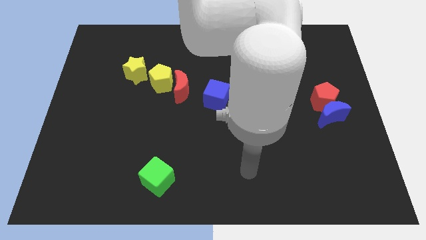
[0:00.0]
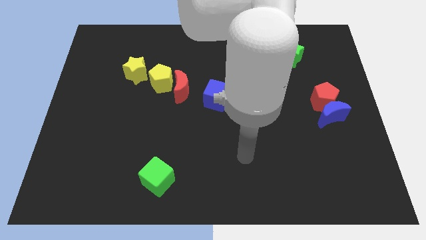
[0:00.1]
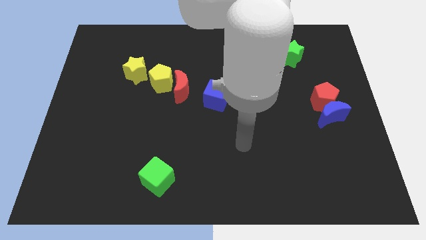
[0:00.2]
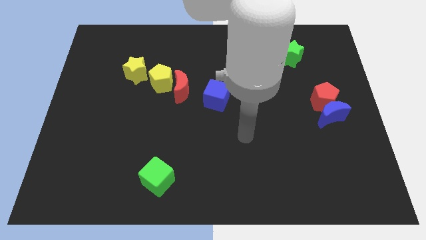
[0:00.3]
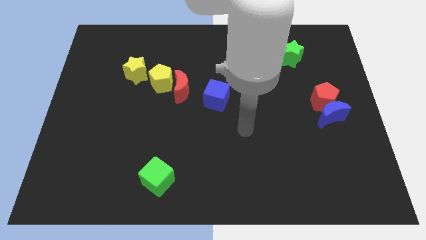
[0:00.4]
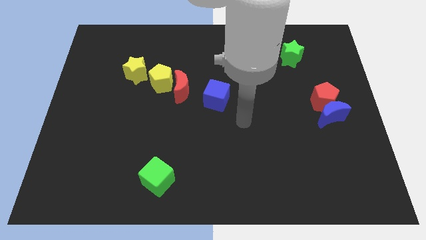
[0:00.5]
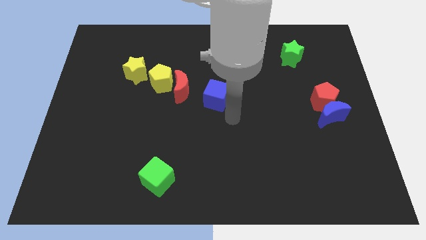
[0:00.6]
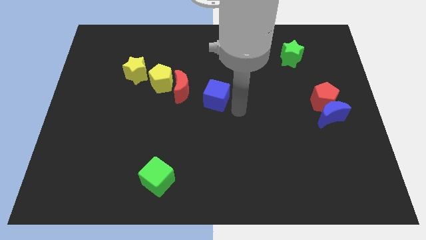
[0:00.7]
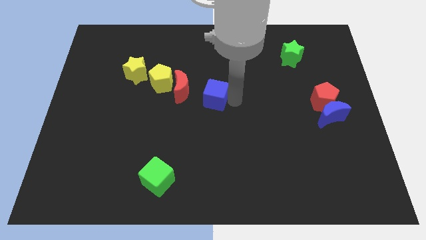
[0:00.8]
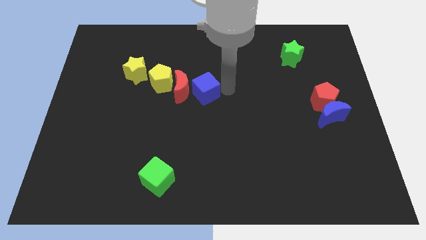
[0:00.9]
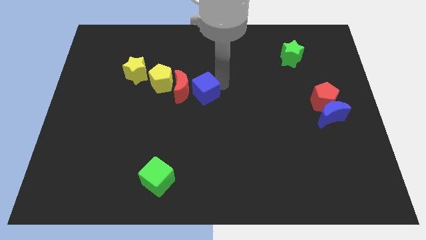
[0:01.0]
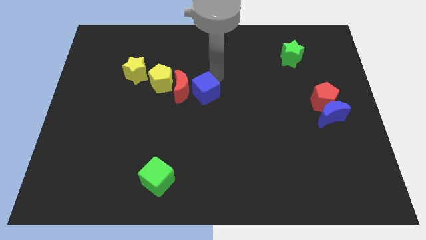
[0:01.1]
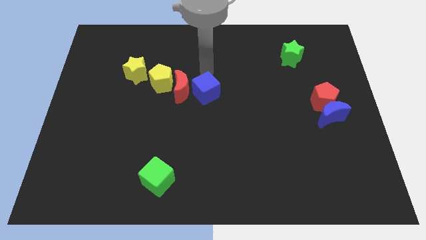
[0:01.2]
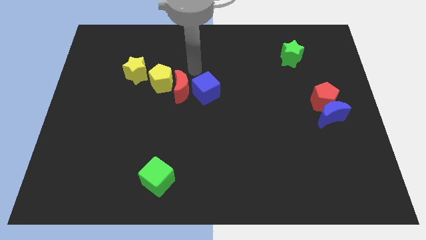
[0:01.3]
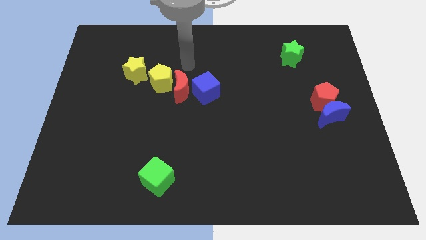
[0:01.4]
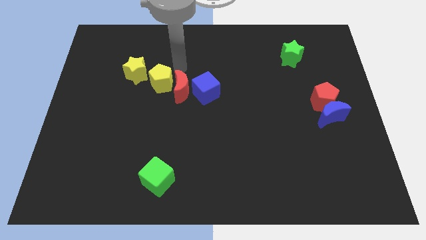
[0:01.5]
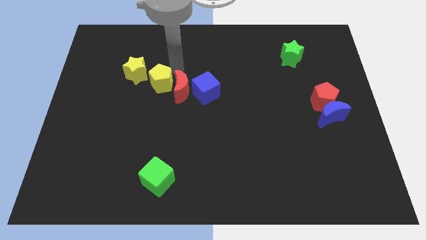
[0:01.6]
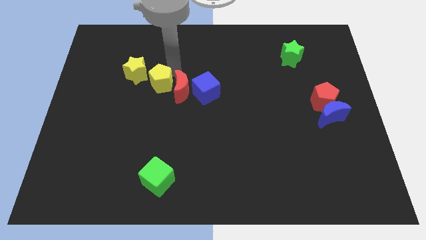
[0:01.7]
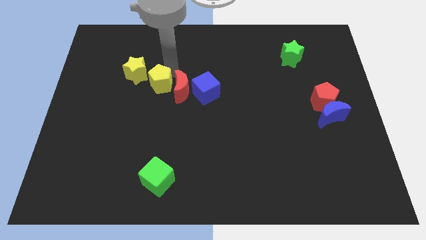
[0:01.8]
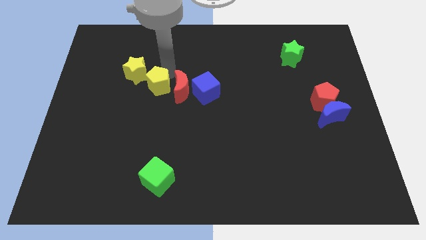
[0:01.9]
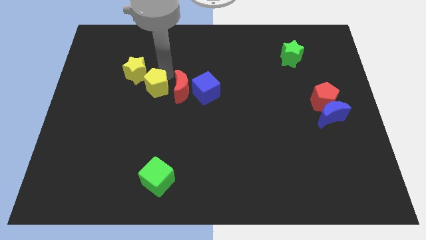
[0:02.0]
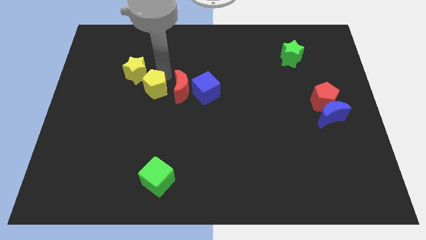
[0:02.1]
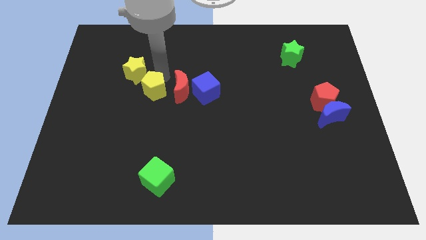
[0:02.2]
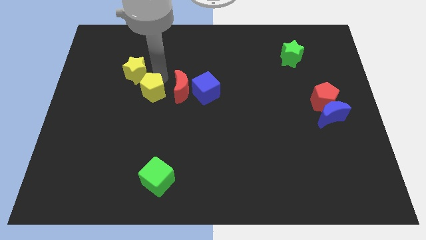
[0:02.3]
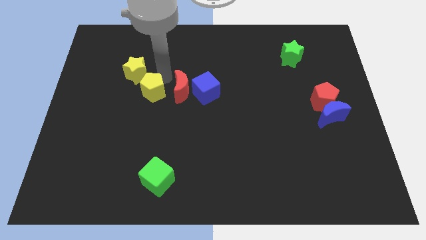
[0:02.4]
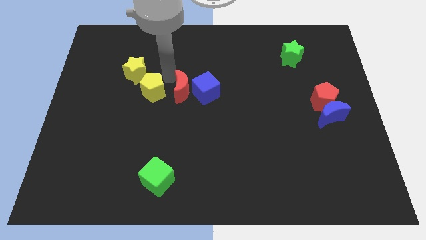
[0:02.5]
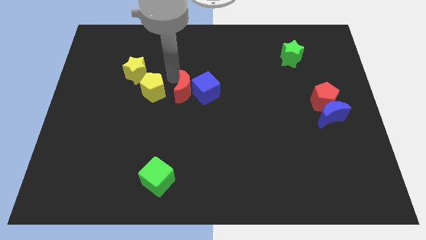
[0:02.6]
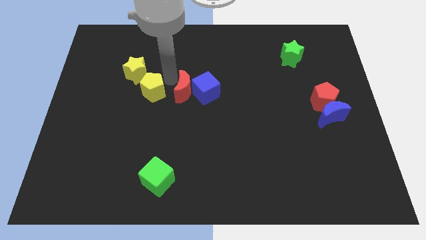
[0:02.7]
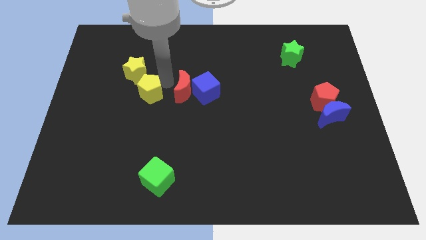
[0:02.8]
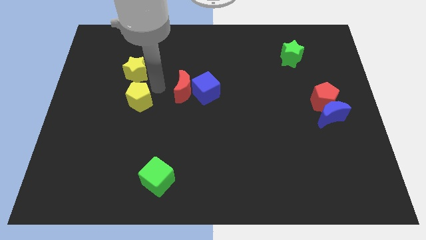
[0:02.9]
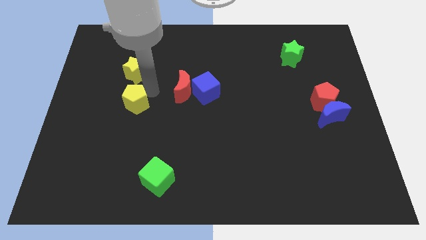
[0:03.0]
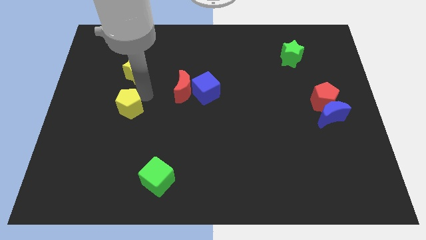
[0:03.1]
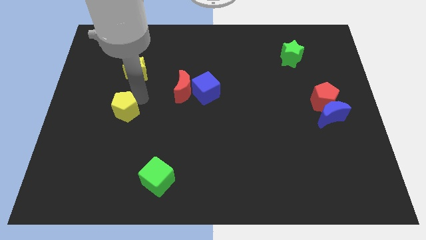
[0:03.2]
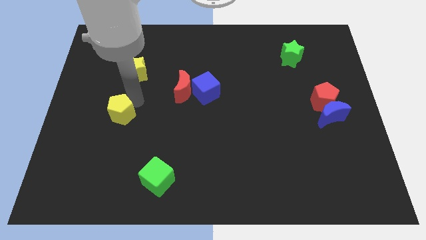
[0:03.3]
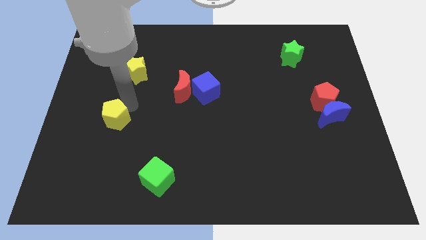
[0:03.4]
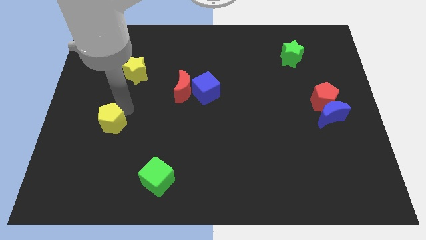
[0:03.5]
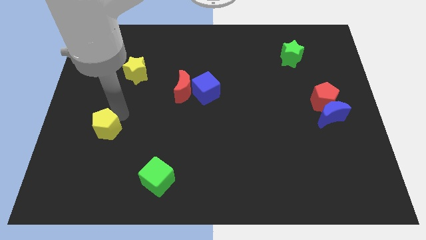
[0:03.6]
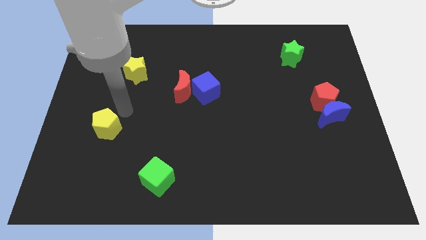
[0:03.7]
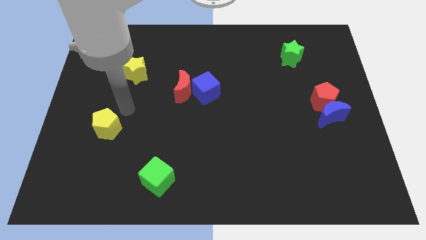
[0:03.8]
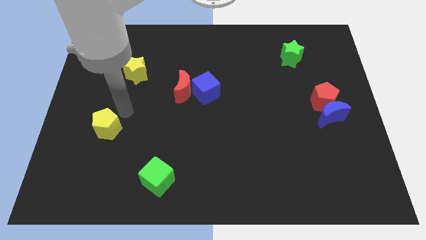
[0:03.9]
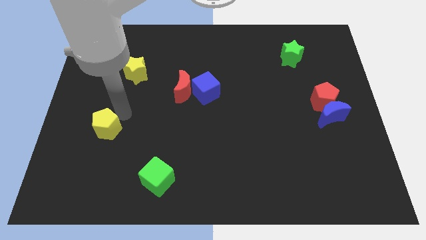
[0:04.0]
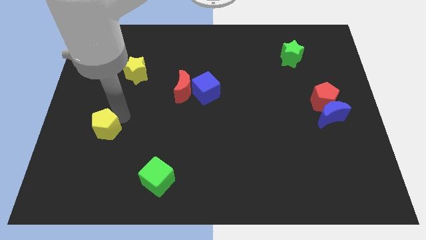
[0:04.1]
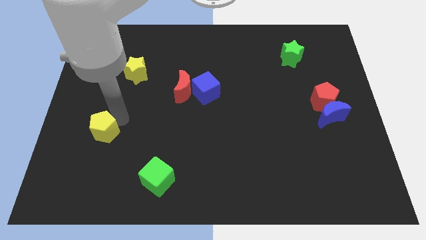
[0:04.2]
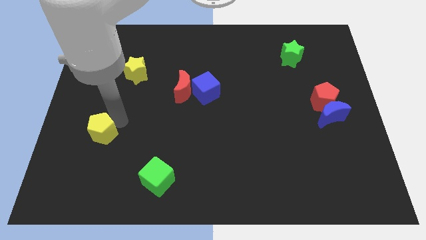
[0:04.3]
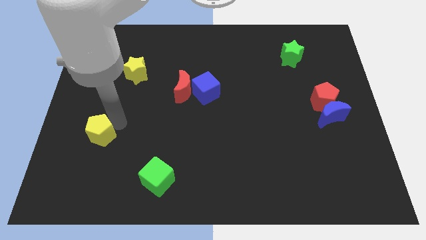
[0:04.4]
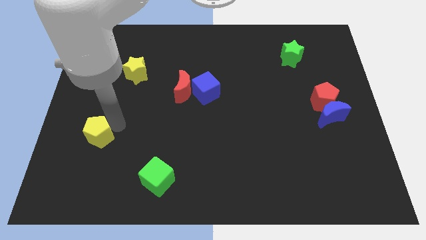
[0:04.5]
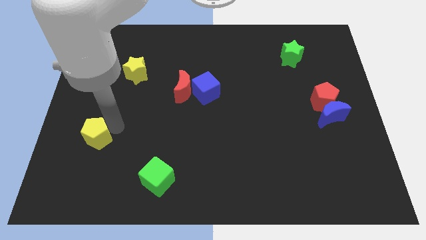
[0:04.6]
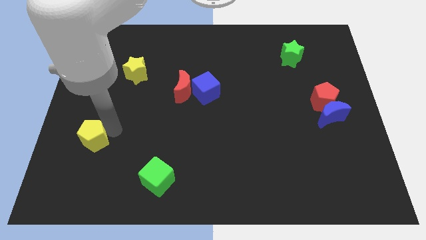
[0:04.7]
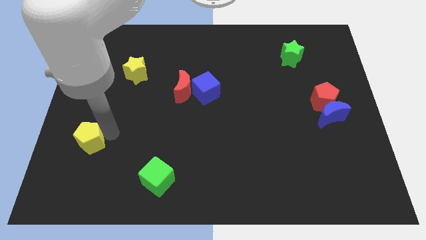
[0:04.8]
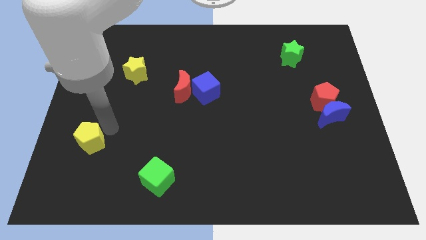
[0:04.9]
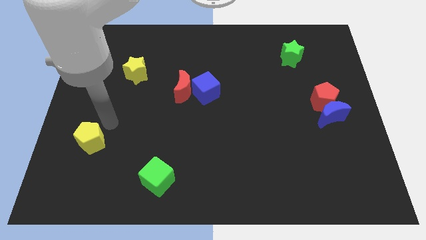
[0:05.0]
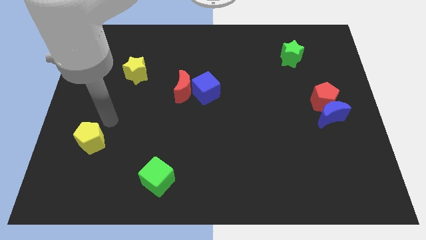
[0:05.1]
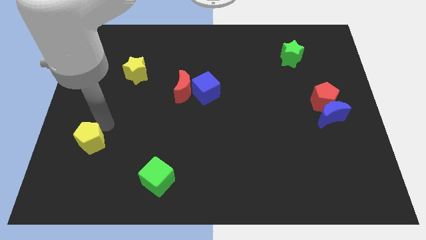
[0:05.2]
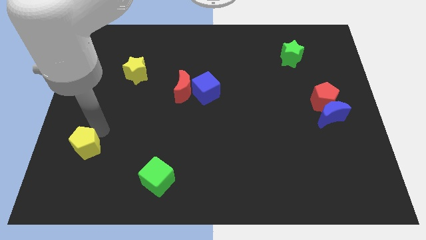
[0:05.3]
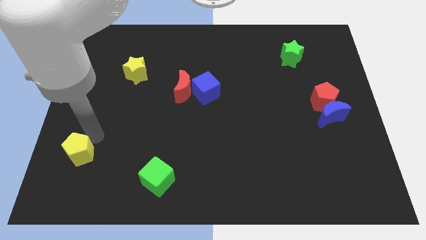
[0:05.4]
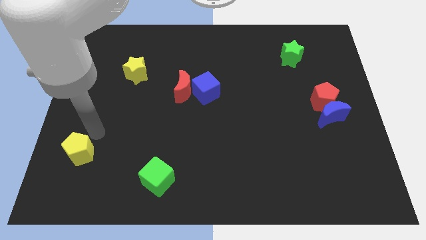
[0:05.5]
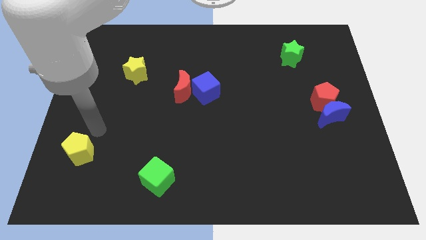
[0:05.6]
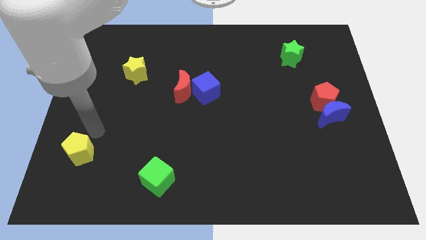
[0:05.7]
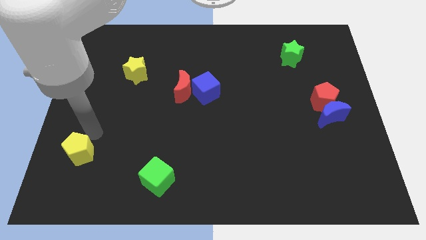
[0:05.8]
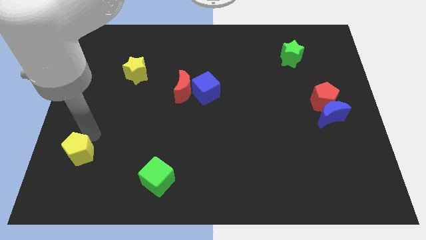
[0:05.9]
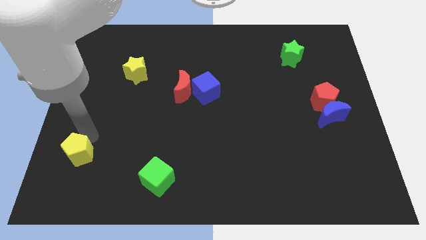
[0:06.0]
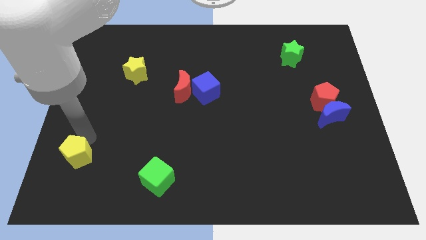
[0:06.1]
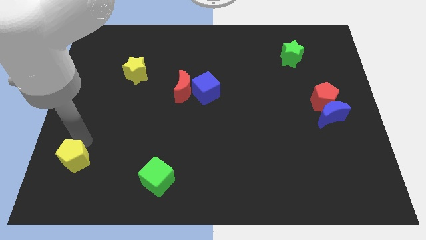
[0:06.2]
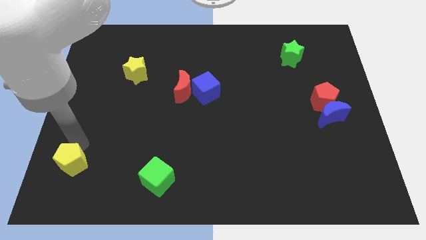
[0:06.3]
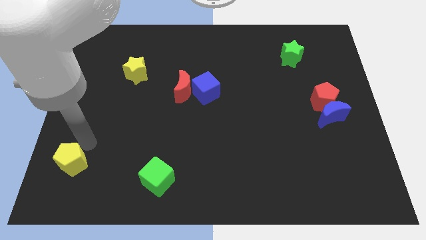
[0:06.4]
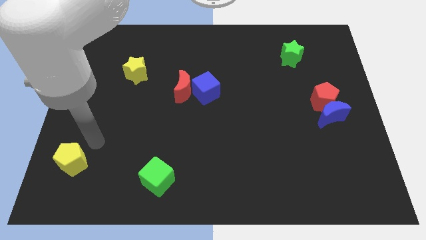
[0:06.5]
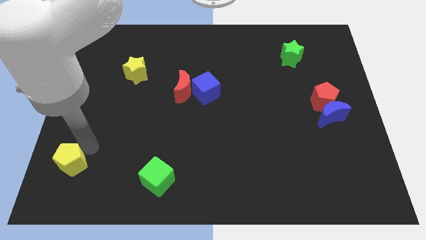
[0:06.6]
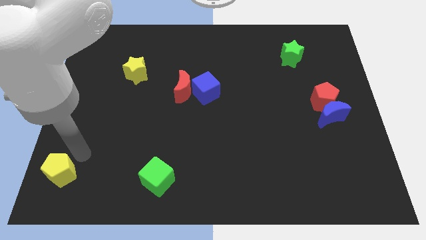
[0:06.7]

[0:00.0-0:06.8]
push the yellow pentagon to the bottom left corner
